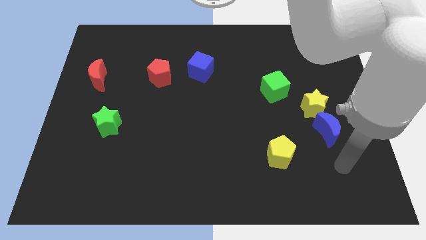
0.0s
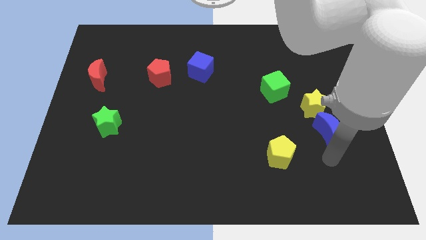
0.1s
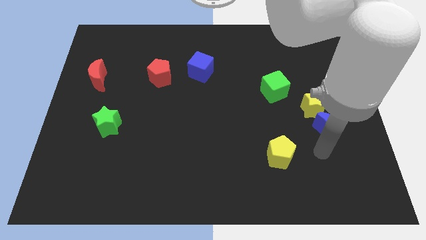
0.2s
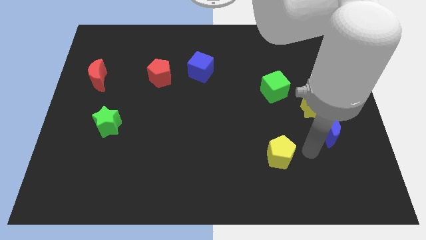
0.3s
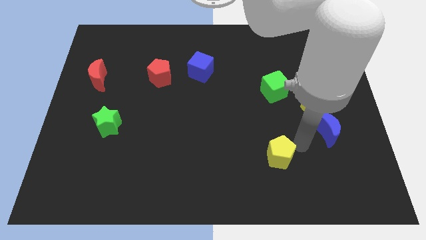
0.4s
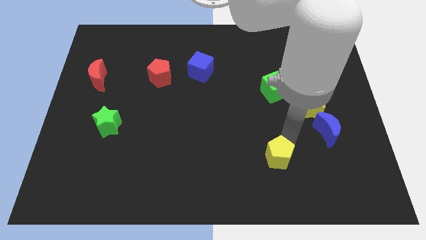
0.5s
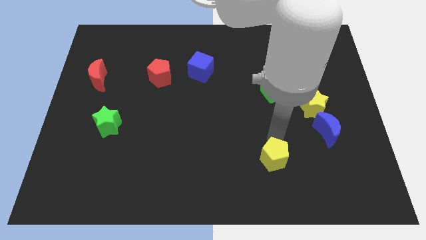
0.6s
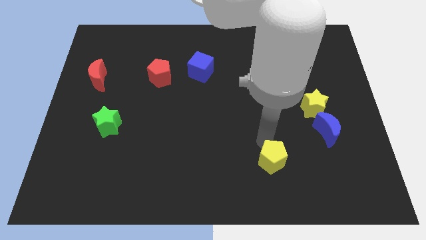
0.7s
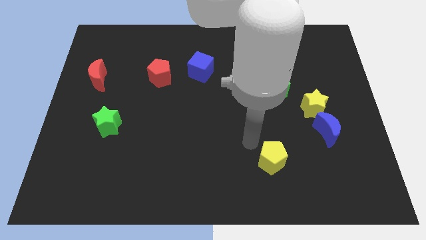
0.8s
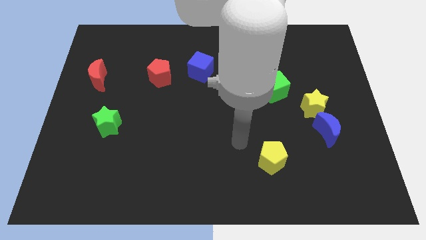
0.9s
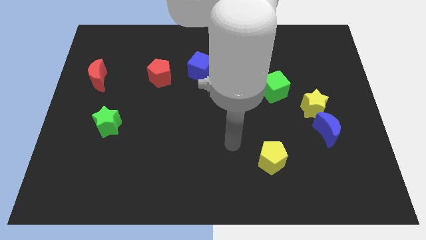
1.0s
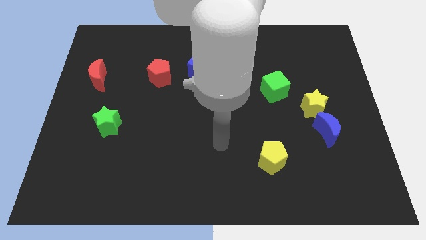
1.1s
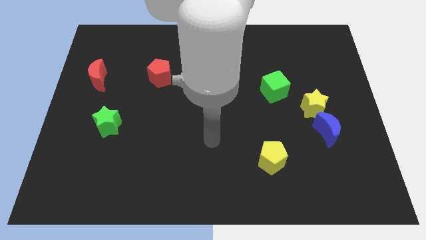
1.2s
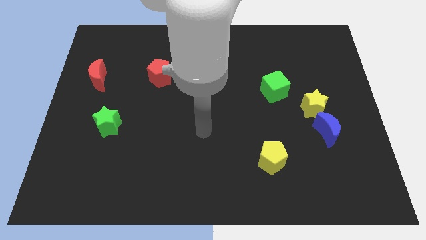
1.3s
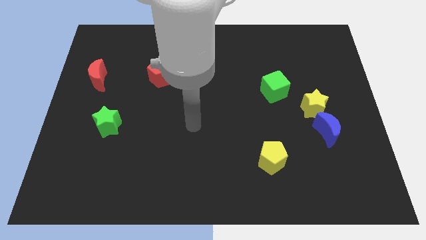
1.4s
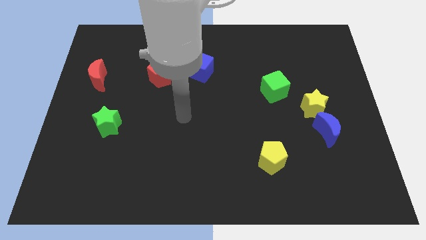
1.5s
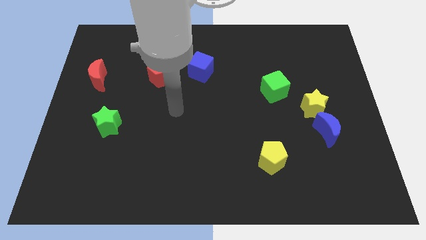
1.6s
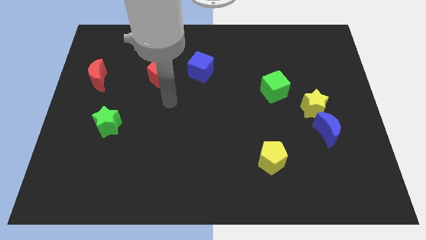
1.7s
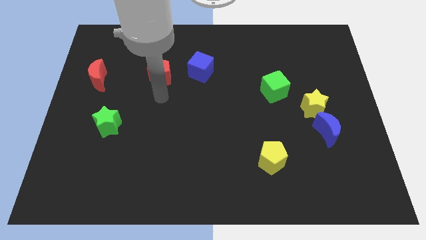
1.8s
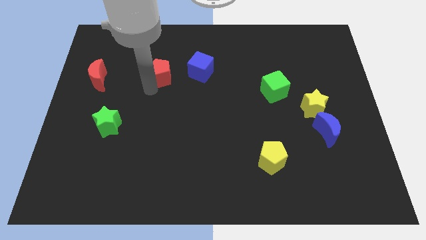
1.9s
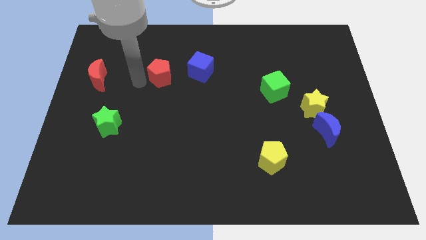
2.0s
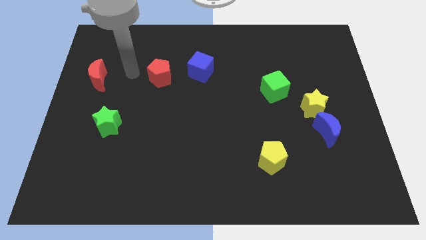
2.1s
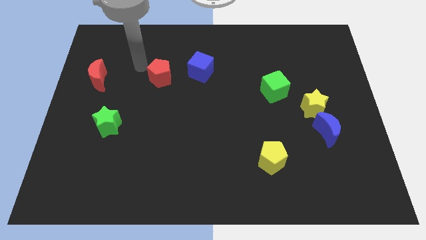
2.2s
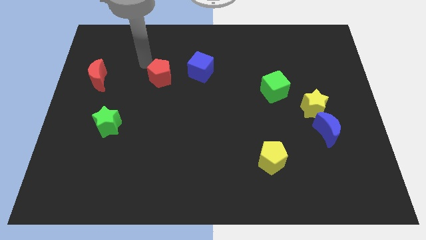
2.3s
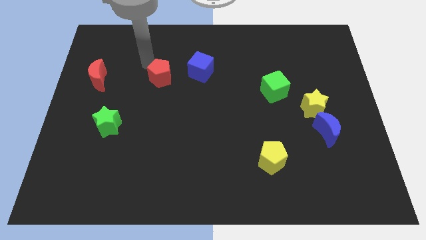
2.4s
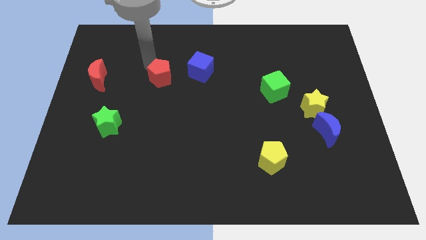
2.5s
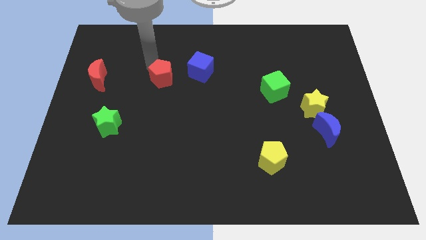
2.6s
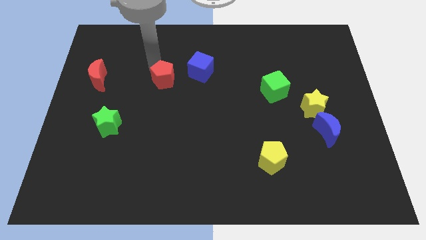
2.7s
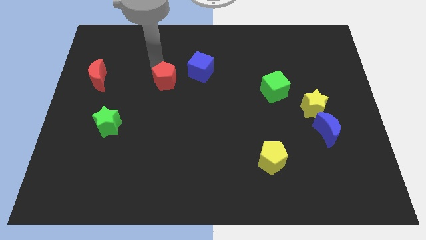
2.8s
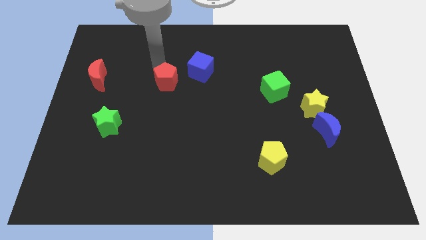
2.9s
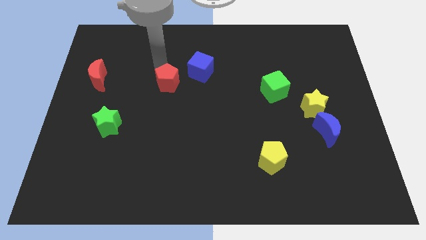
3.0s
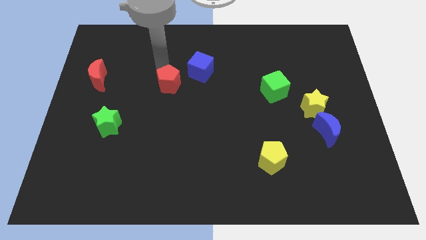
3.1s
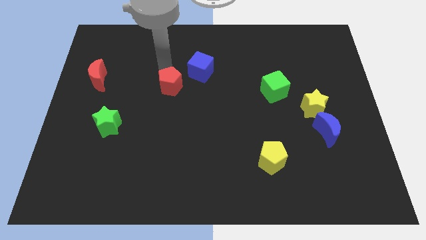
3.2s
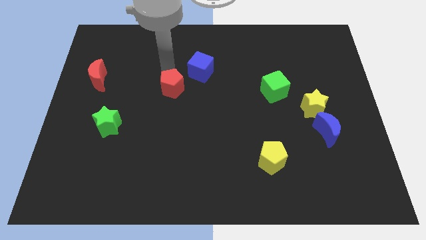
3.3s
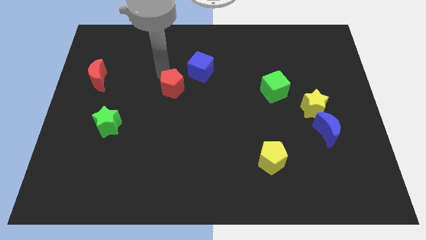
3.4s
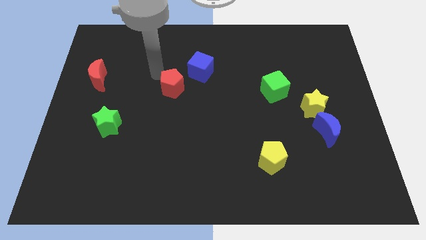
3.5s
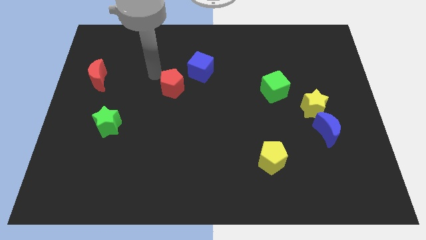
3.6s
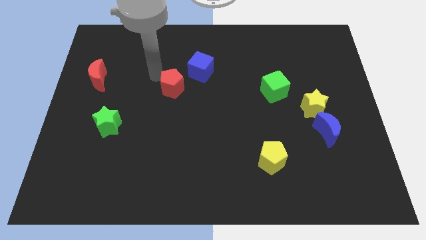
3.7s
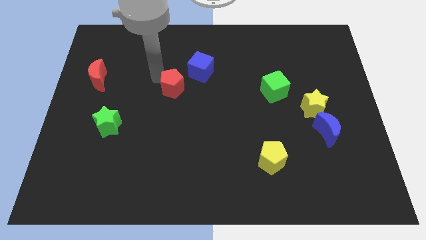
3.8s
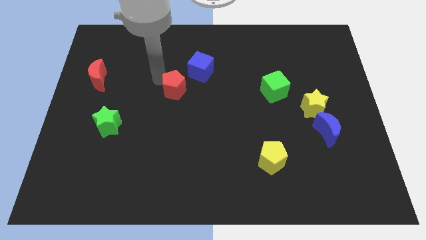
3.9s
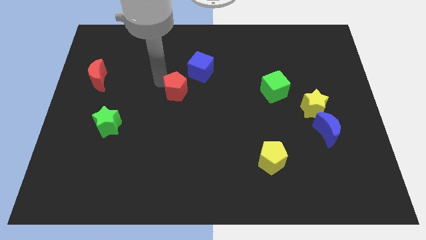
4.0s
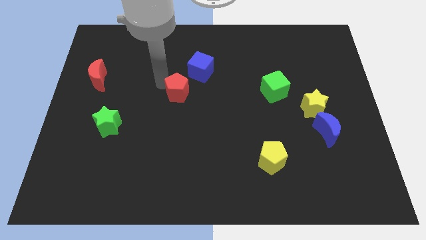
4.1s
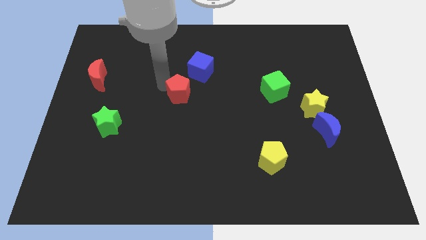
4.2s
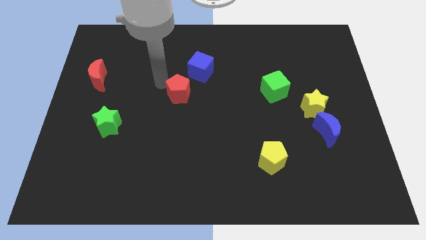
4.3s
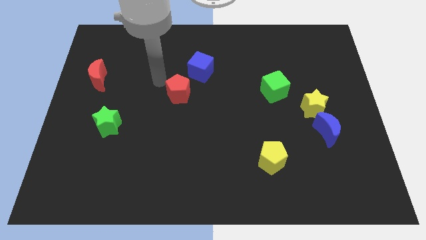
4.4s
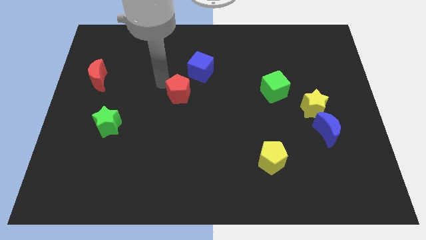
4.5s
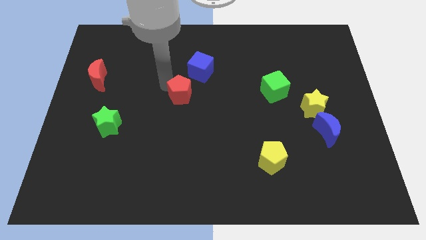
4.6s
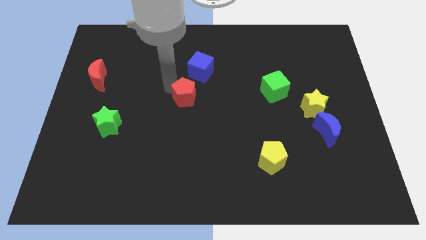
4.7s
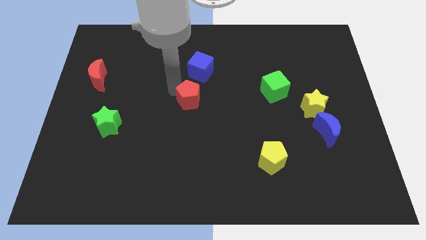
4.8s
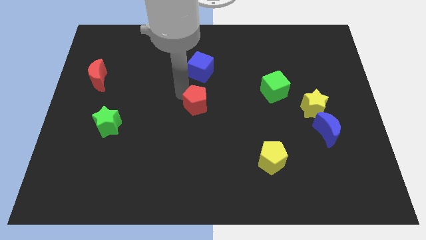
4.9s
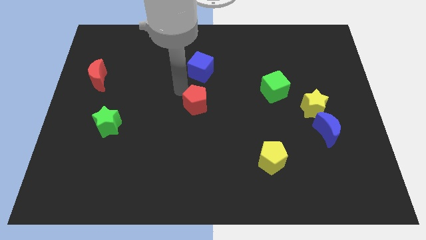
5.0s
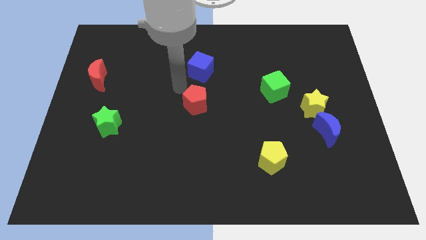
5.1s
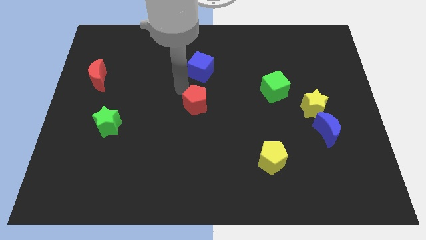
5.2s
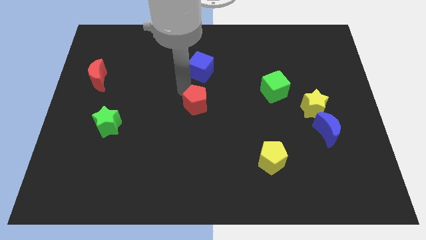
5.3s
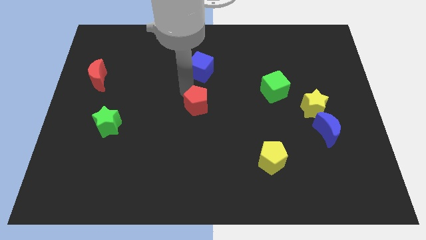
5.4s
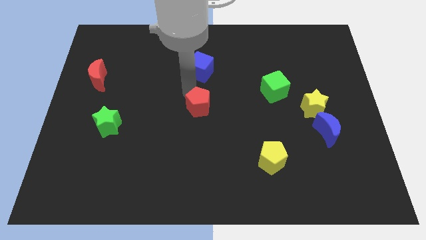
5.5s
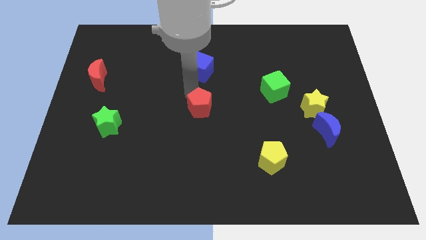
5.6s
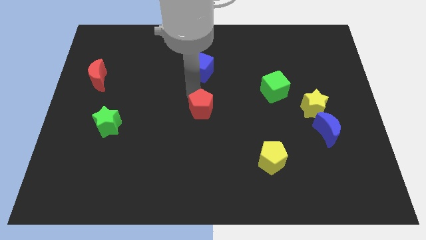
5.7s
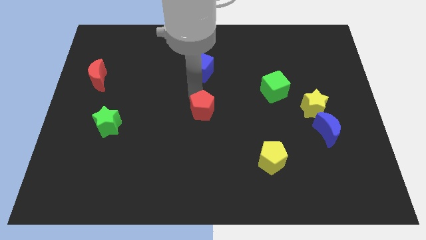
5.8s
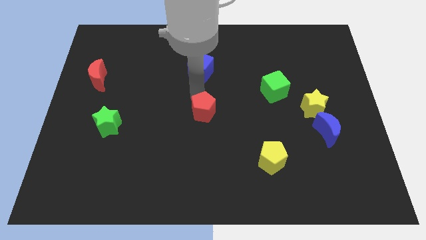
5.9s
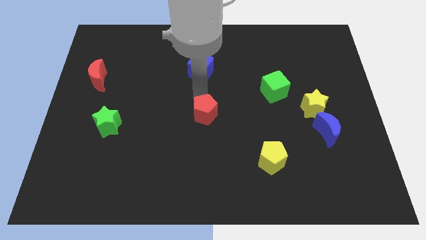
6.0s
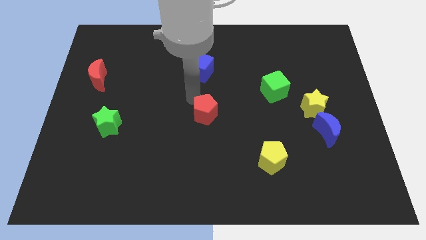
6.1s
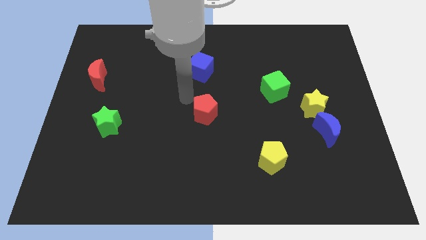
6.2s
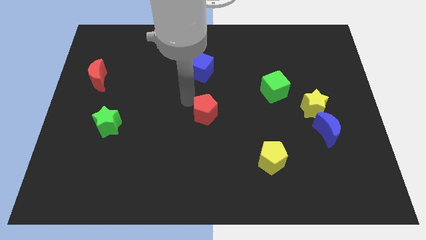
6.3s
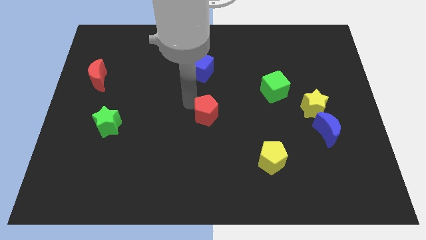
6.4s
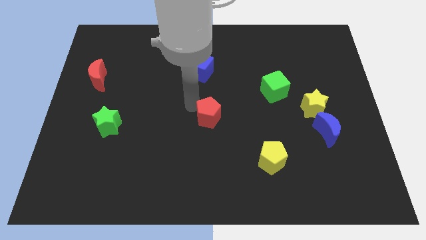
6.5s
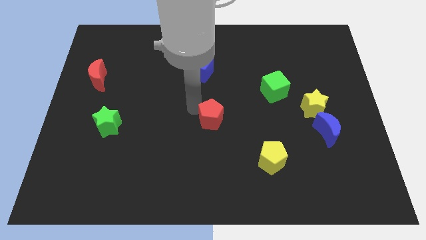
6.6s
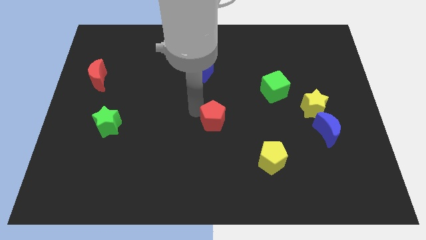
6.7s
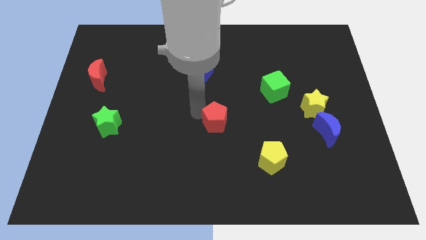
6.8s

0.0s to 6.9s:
slide the red pentagon downwards and right

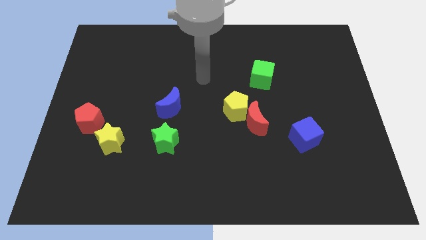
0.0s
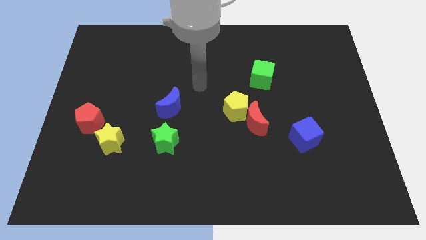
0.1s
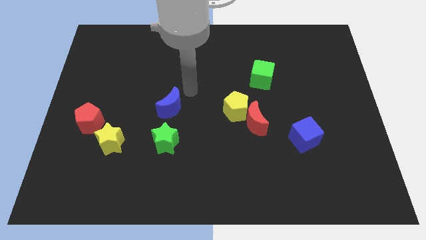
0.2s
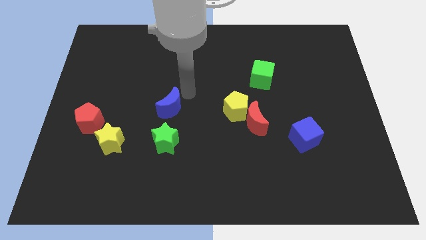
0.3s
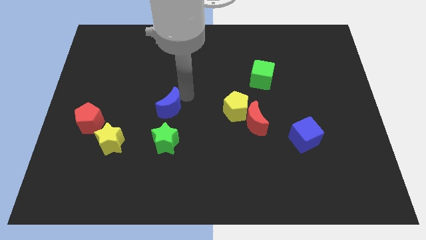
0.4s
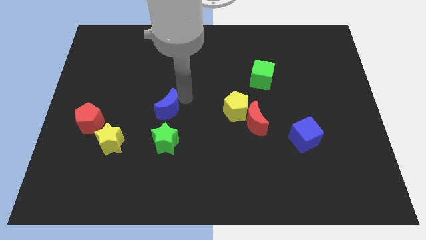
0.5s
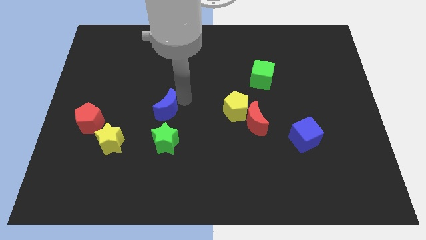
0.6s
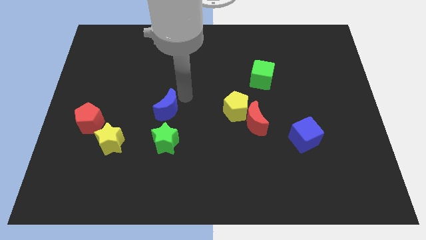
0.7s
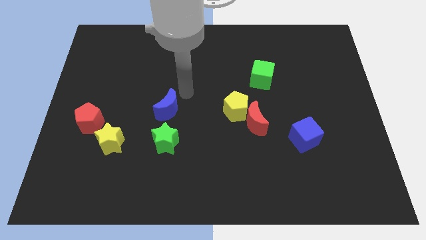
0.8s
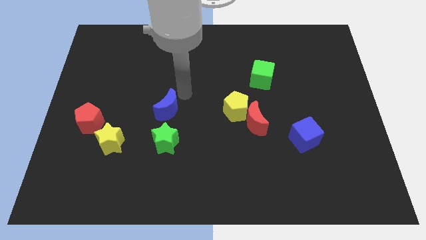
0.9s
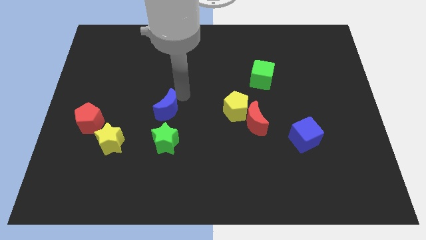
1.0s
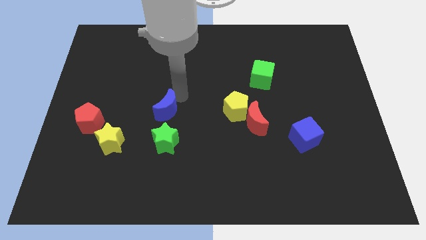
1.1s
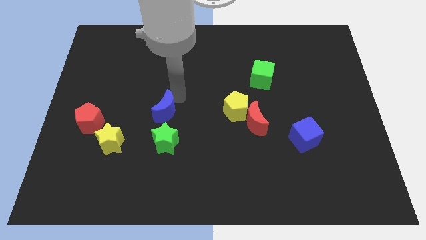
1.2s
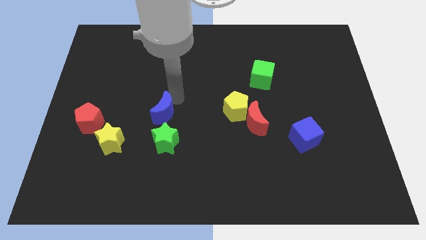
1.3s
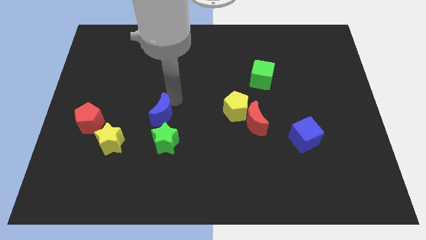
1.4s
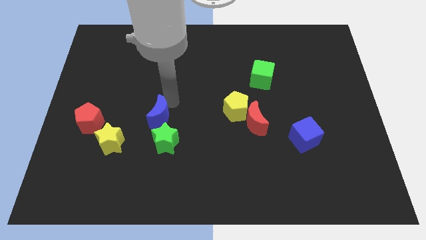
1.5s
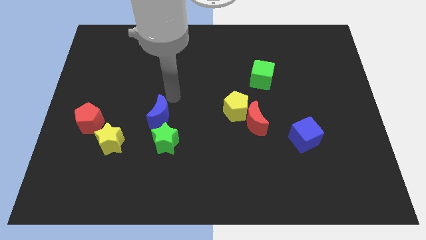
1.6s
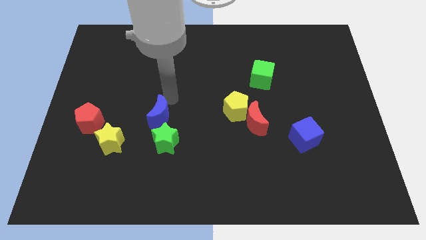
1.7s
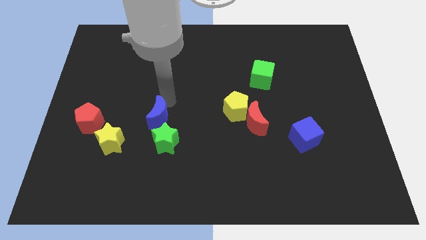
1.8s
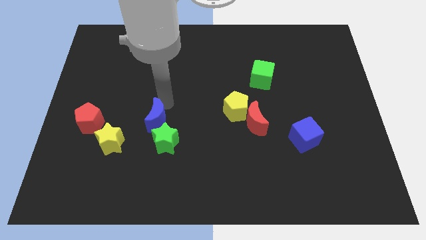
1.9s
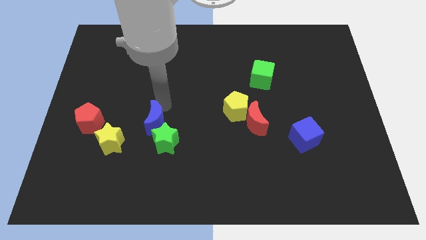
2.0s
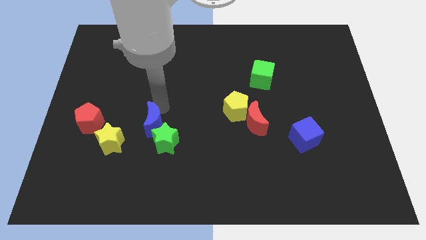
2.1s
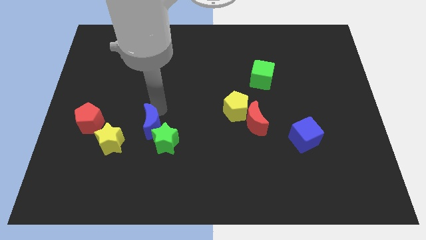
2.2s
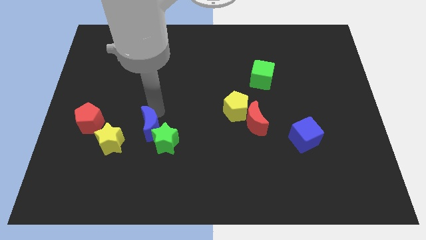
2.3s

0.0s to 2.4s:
slightly push the blue moon down and left
